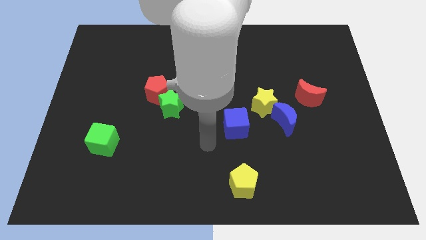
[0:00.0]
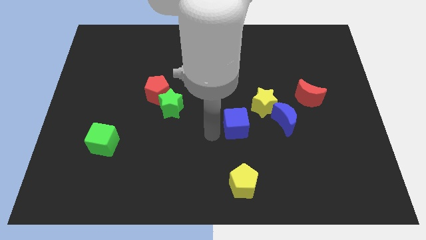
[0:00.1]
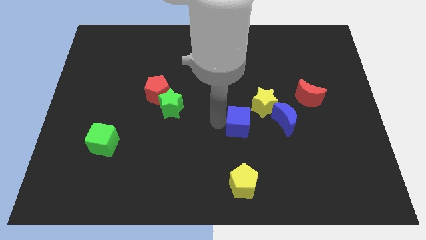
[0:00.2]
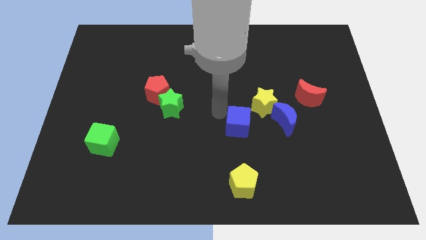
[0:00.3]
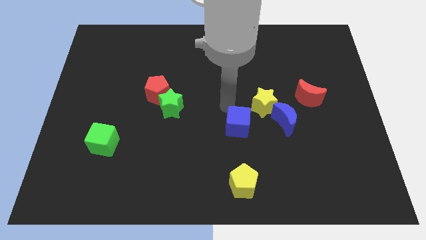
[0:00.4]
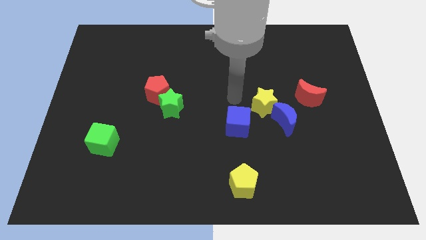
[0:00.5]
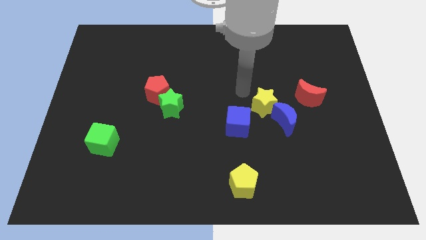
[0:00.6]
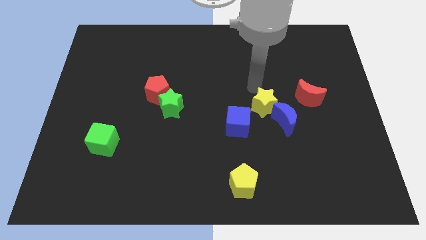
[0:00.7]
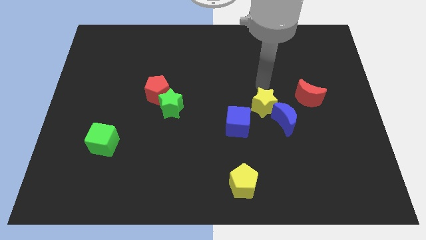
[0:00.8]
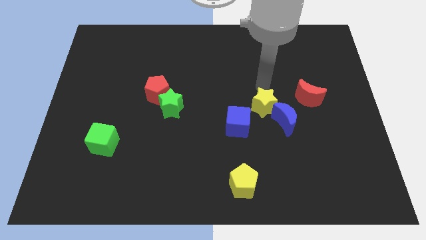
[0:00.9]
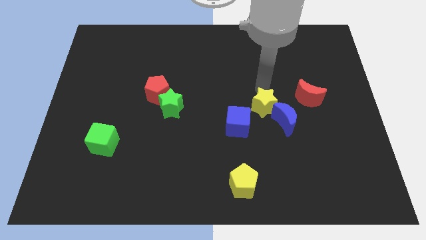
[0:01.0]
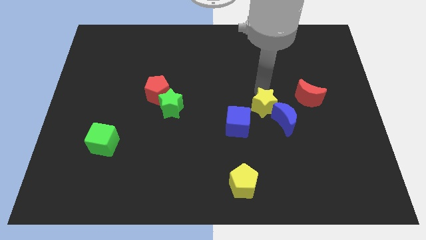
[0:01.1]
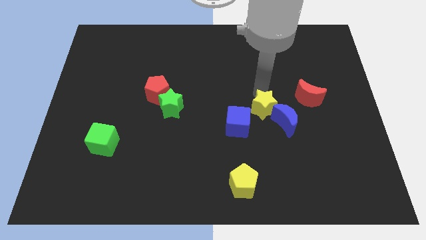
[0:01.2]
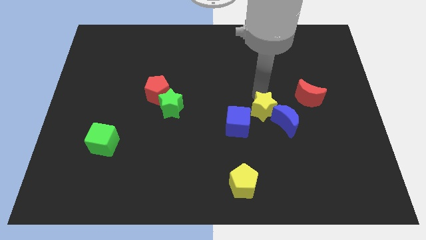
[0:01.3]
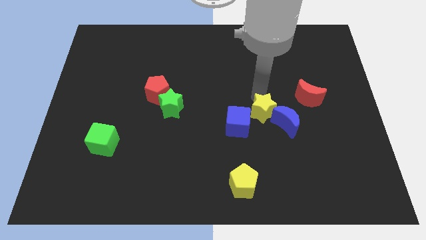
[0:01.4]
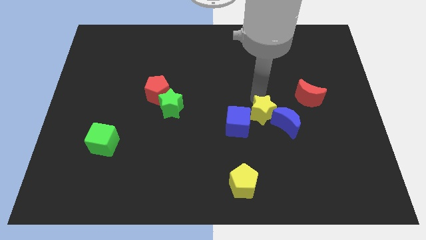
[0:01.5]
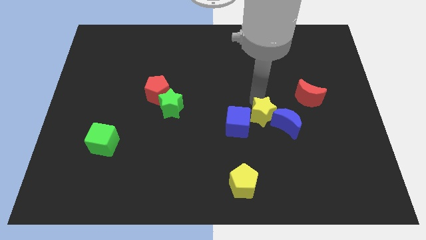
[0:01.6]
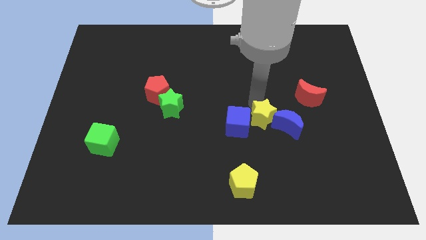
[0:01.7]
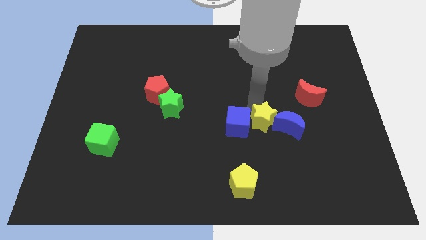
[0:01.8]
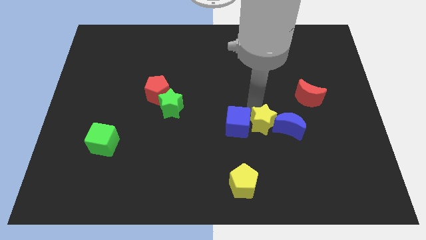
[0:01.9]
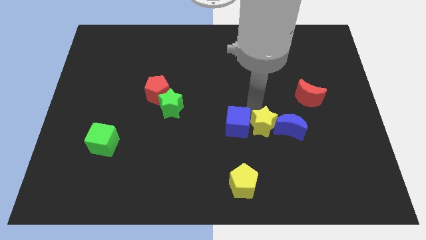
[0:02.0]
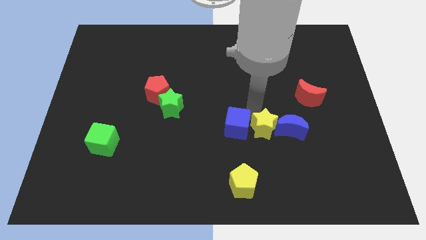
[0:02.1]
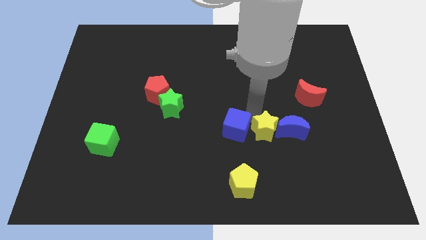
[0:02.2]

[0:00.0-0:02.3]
slide the yellow star a bit down

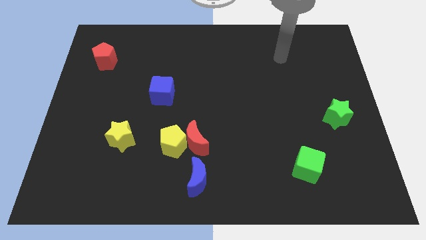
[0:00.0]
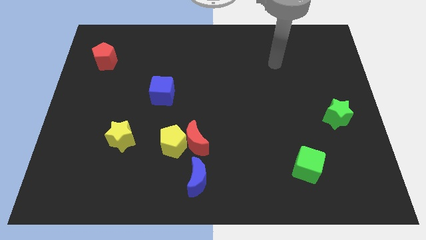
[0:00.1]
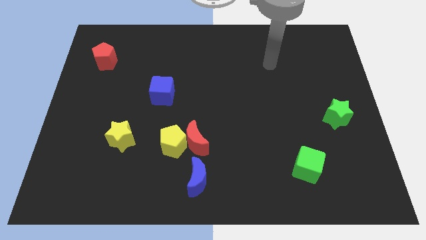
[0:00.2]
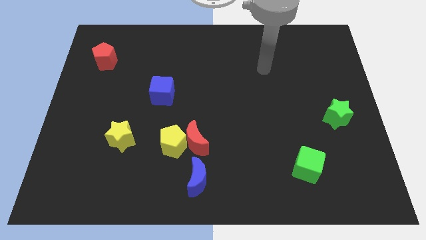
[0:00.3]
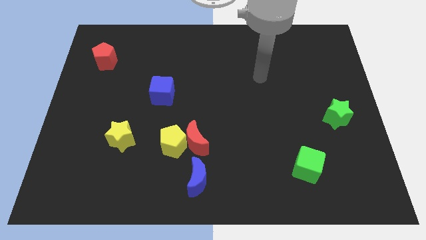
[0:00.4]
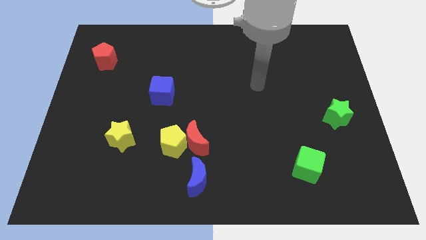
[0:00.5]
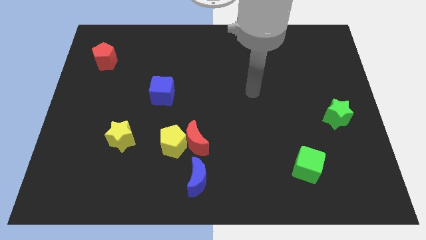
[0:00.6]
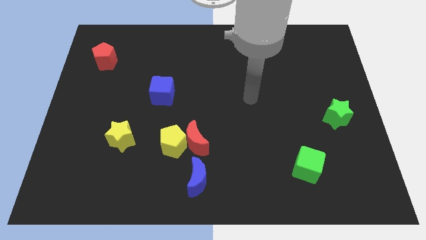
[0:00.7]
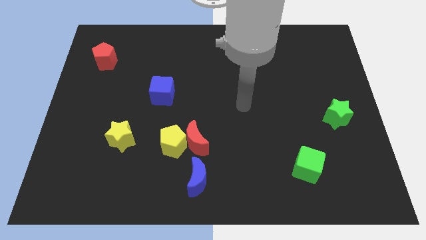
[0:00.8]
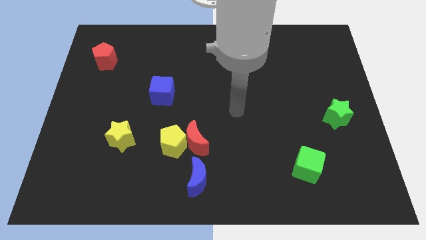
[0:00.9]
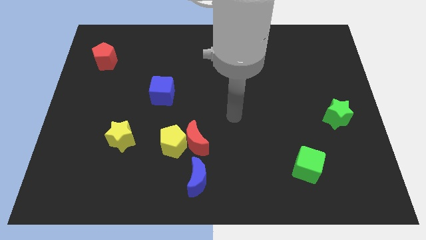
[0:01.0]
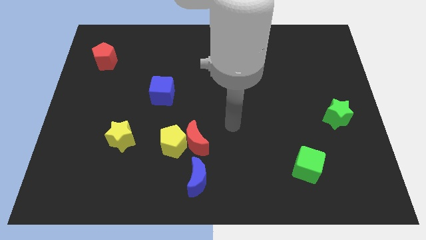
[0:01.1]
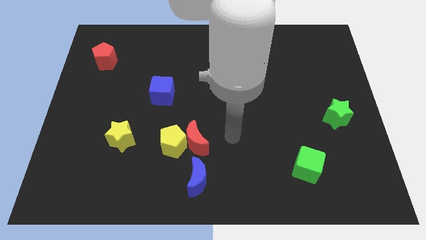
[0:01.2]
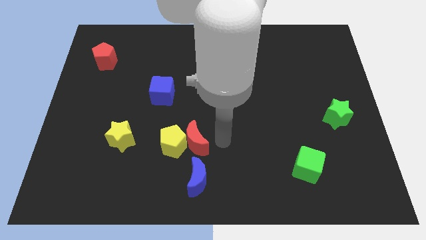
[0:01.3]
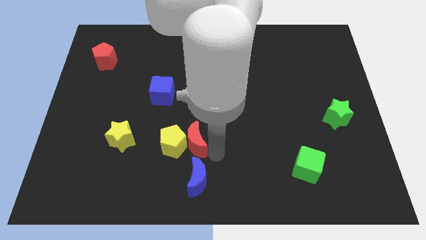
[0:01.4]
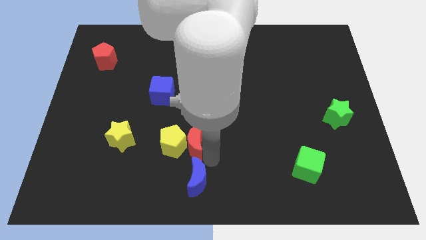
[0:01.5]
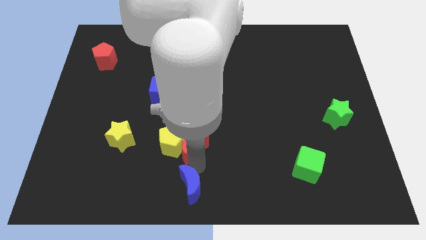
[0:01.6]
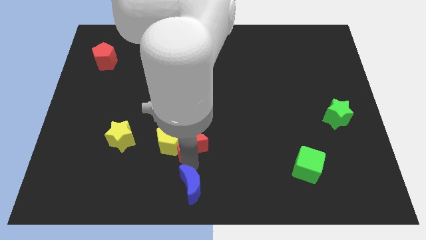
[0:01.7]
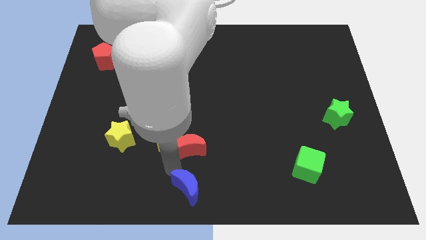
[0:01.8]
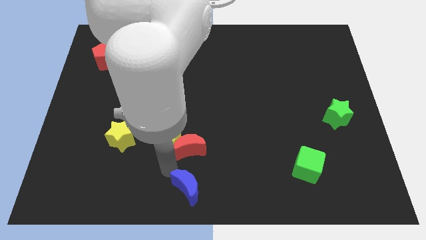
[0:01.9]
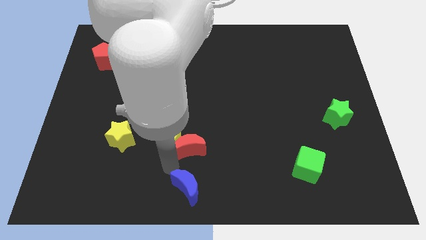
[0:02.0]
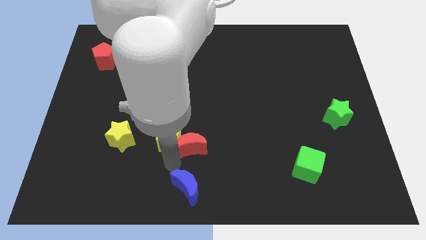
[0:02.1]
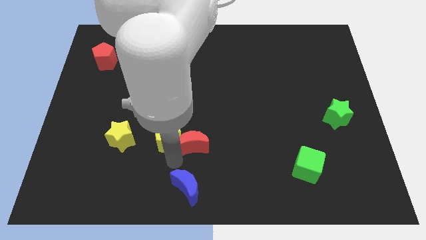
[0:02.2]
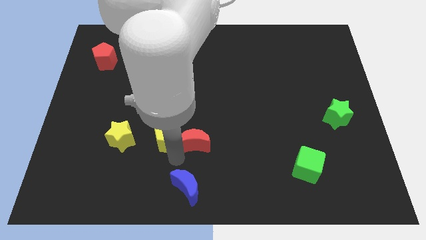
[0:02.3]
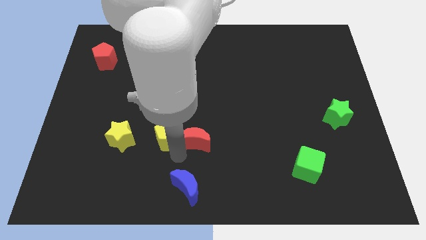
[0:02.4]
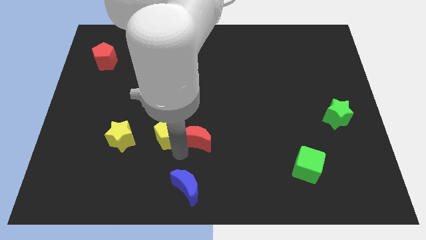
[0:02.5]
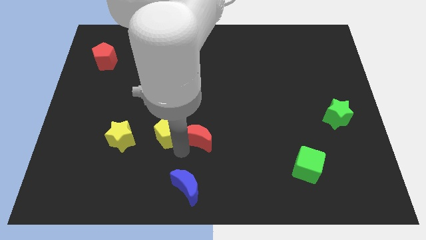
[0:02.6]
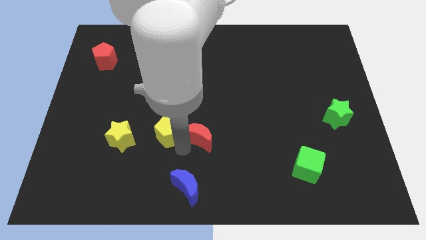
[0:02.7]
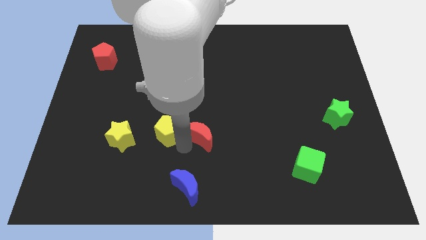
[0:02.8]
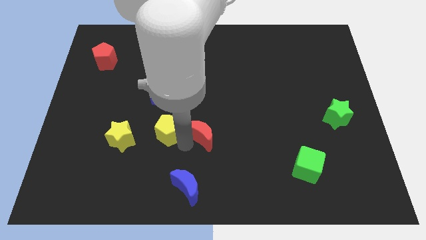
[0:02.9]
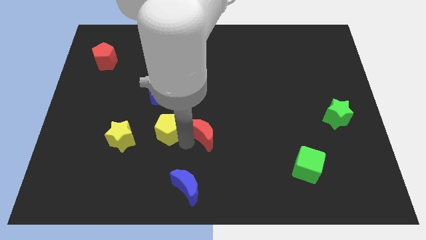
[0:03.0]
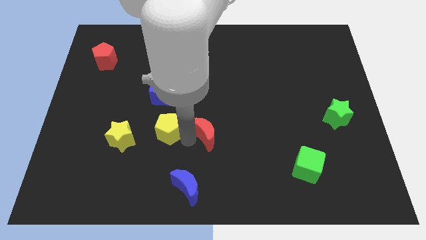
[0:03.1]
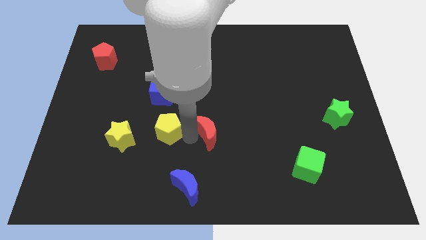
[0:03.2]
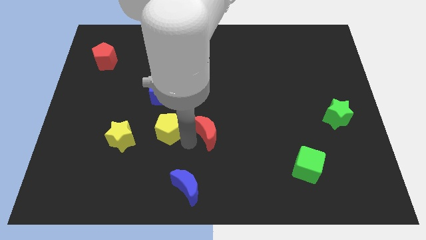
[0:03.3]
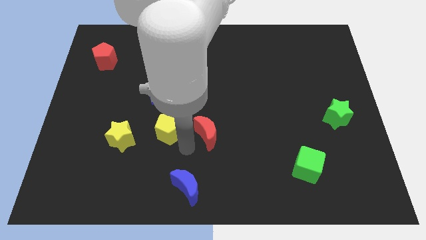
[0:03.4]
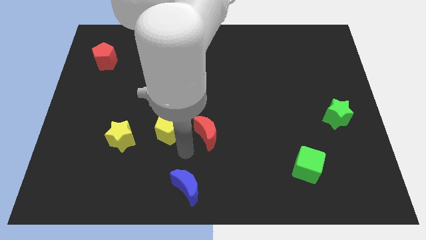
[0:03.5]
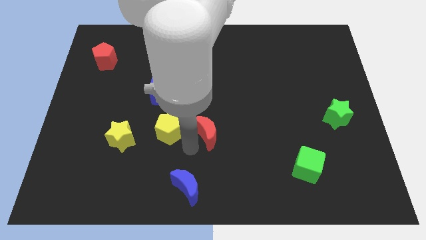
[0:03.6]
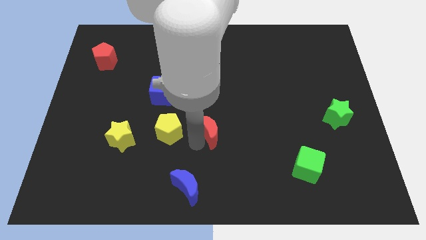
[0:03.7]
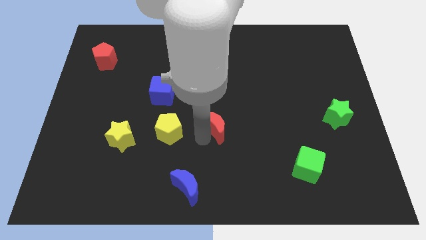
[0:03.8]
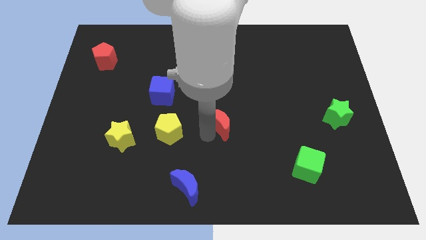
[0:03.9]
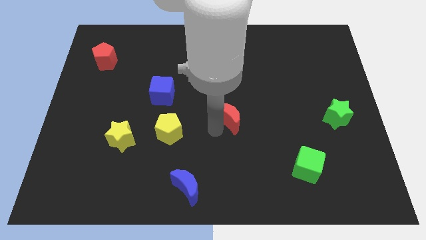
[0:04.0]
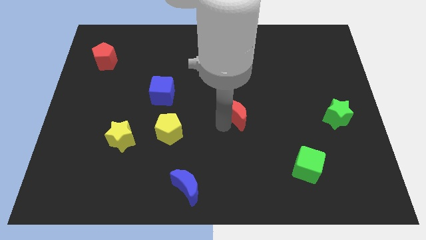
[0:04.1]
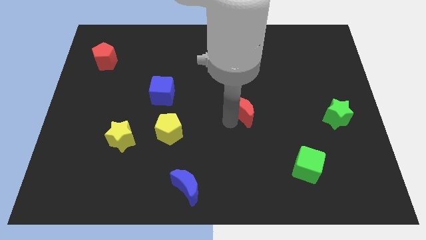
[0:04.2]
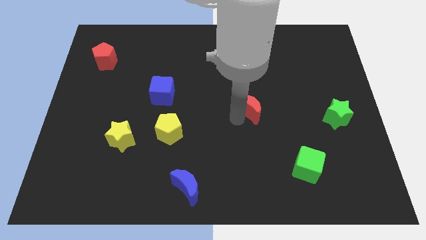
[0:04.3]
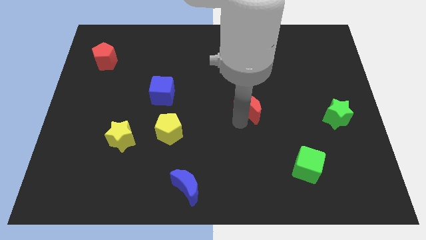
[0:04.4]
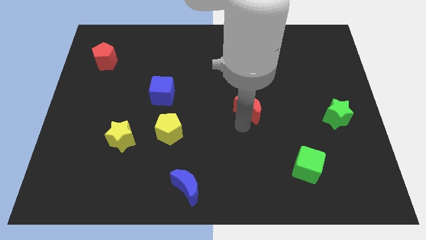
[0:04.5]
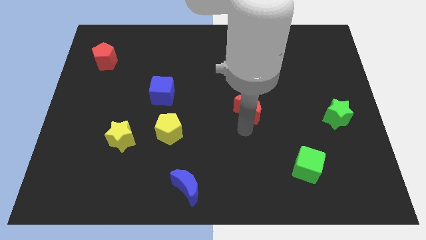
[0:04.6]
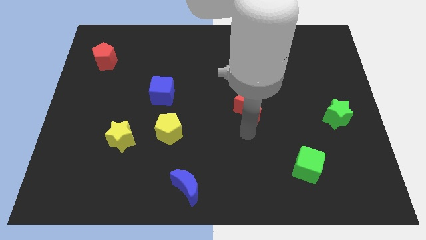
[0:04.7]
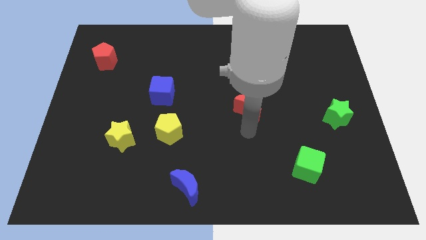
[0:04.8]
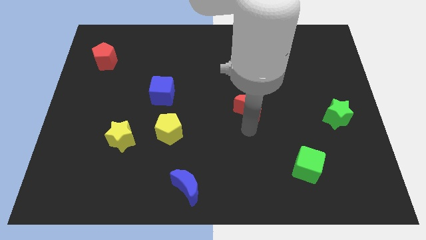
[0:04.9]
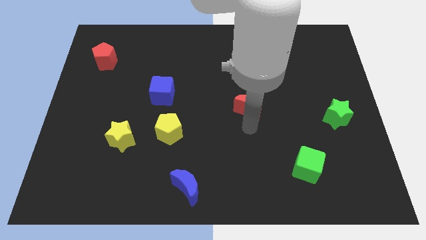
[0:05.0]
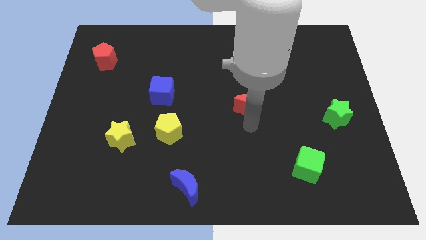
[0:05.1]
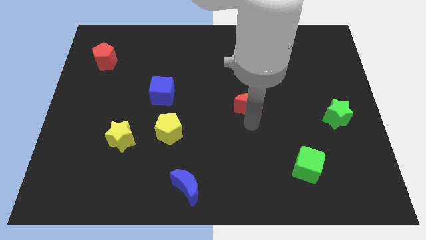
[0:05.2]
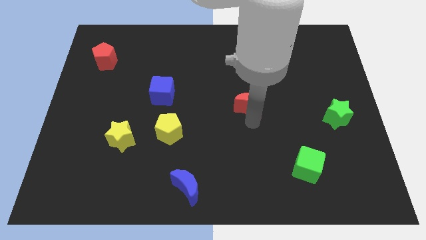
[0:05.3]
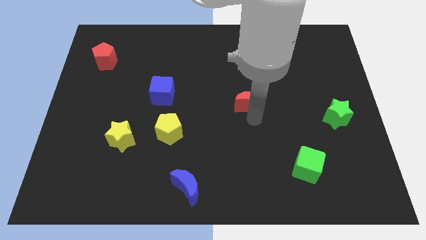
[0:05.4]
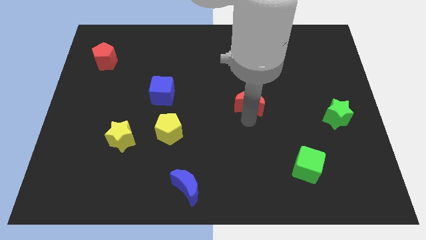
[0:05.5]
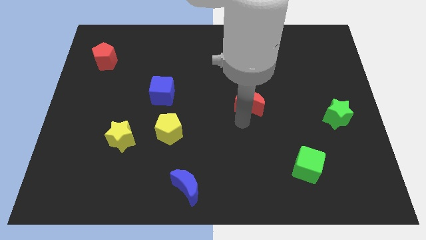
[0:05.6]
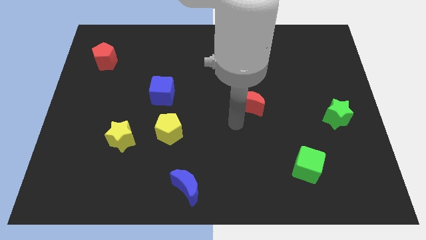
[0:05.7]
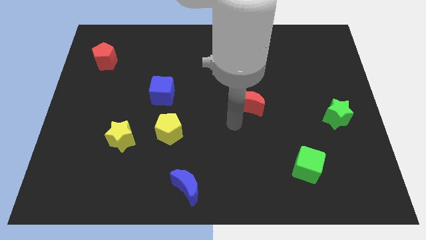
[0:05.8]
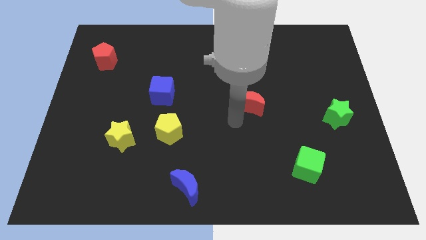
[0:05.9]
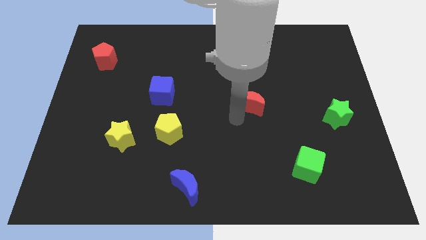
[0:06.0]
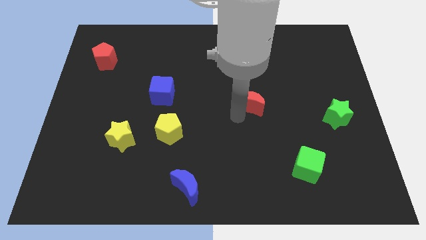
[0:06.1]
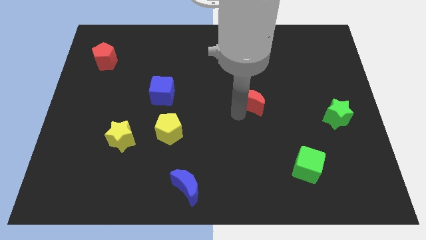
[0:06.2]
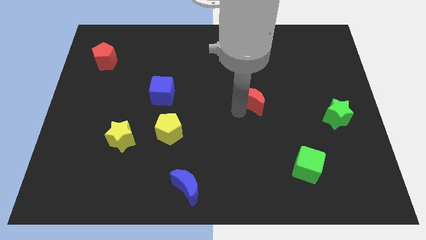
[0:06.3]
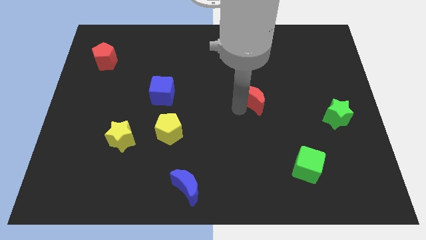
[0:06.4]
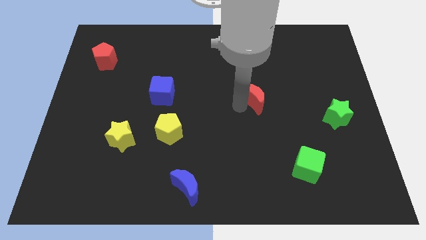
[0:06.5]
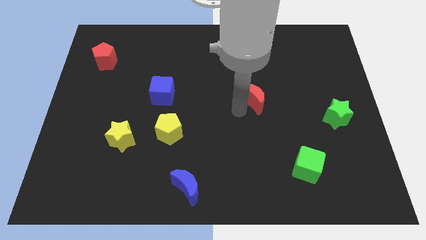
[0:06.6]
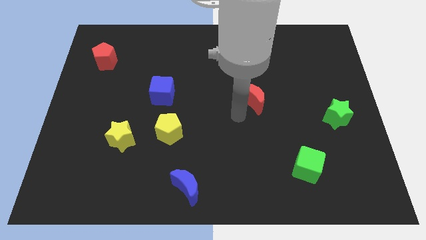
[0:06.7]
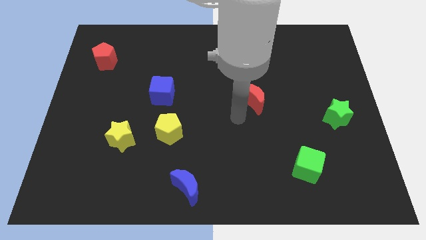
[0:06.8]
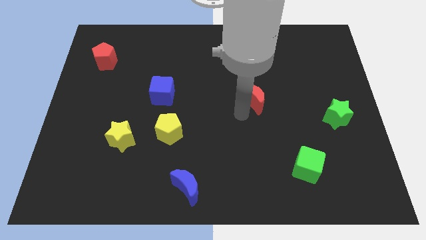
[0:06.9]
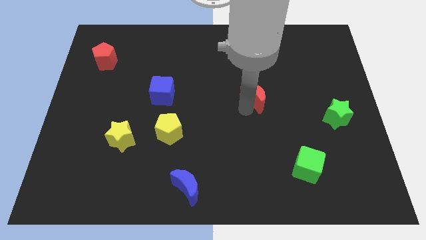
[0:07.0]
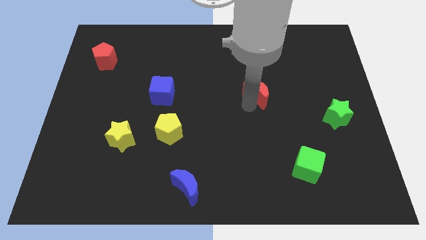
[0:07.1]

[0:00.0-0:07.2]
move the red moon diagonally upwards and right
